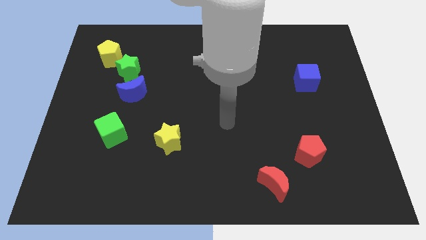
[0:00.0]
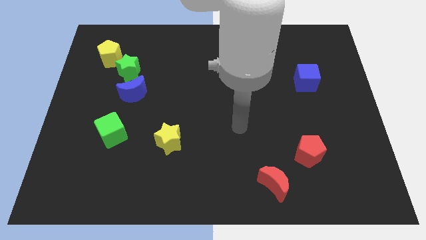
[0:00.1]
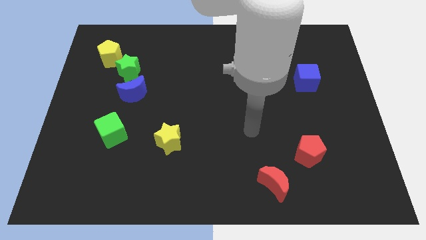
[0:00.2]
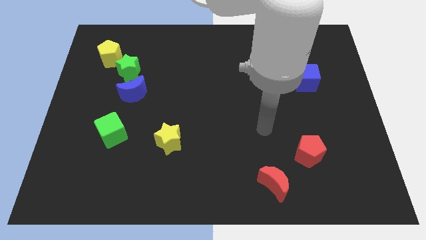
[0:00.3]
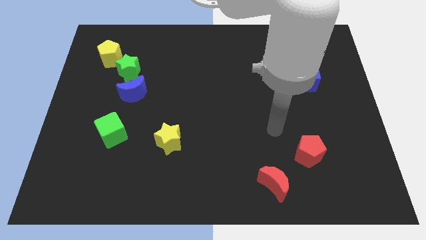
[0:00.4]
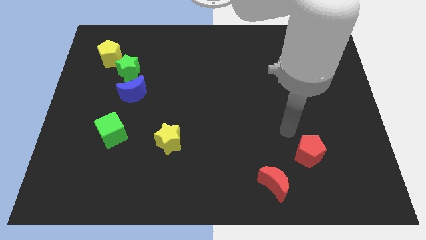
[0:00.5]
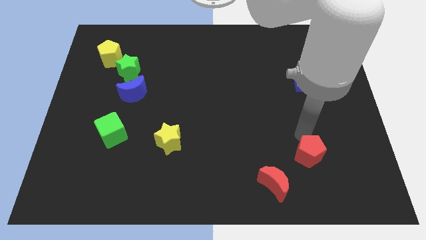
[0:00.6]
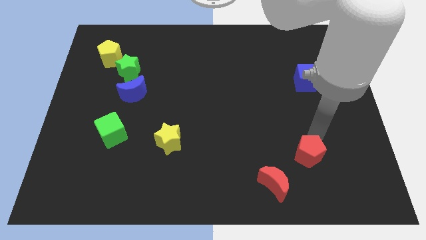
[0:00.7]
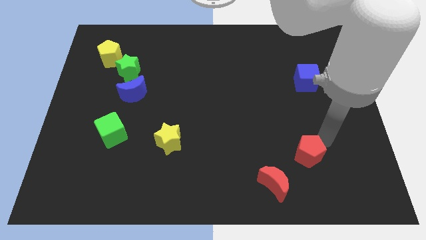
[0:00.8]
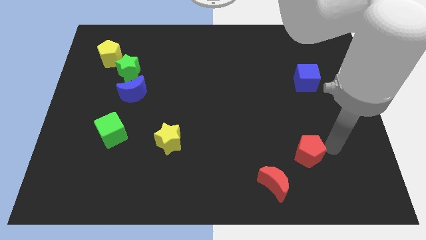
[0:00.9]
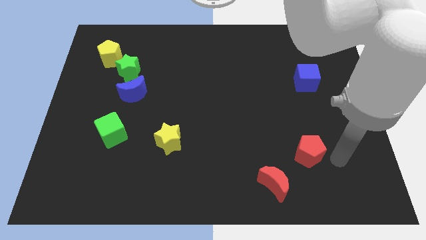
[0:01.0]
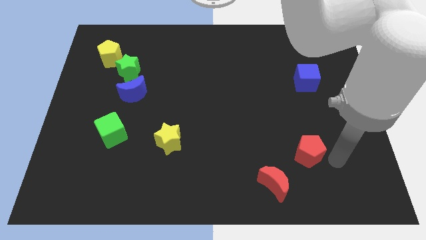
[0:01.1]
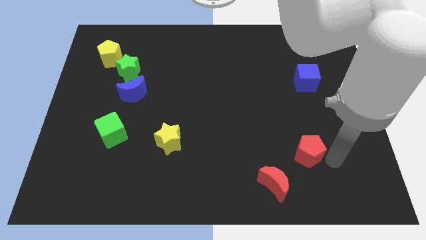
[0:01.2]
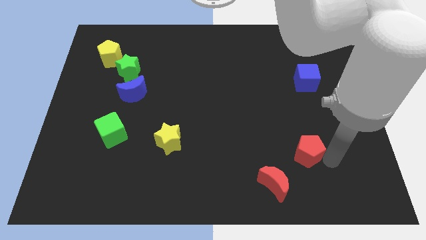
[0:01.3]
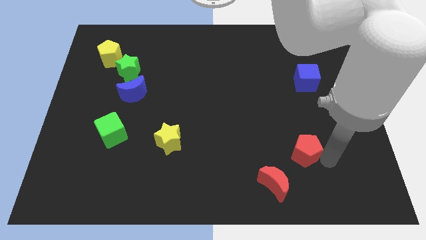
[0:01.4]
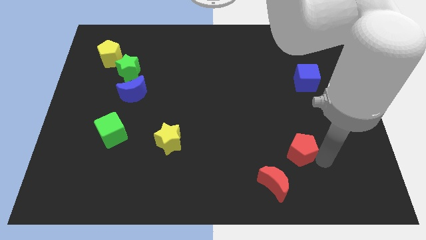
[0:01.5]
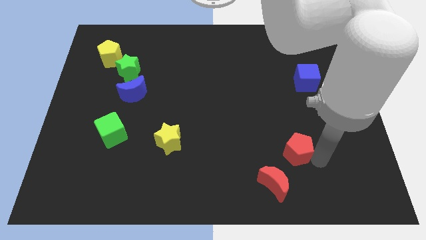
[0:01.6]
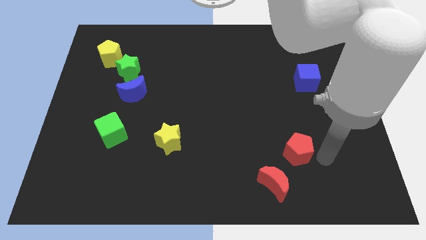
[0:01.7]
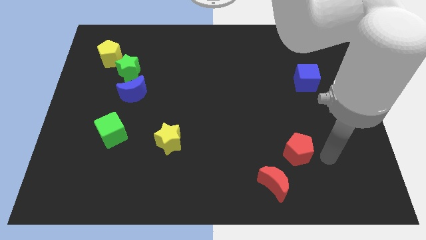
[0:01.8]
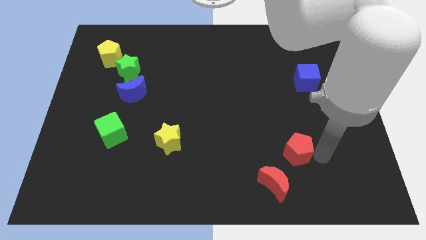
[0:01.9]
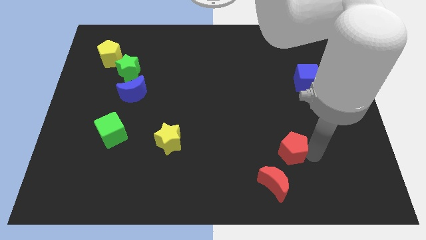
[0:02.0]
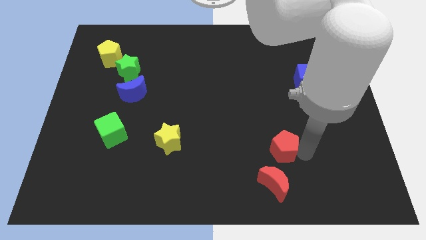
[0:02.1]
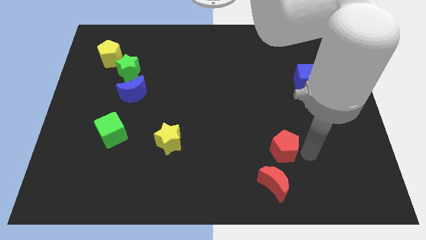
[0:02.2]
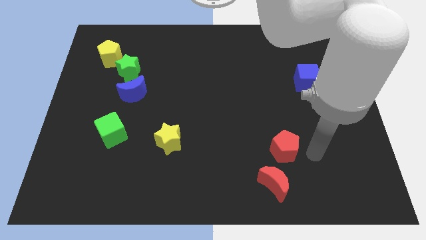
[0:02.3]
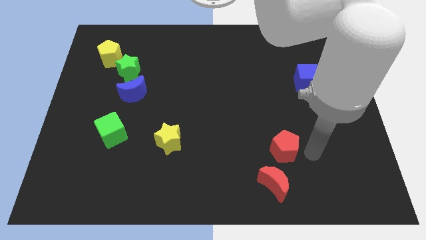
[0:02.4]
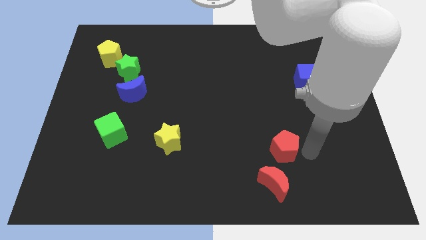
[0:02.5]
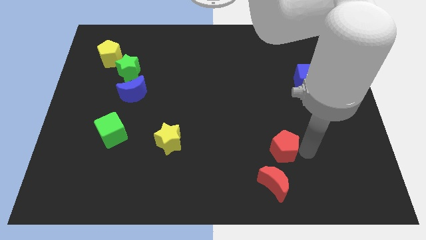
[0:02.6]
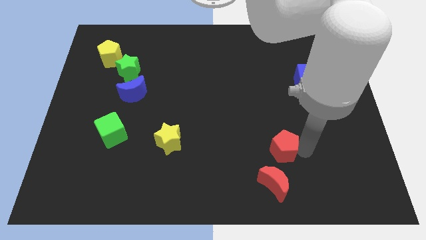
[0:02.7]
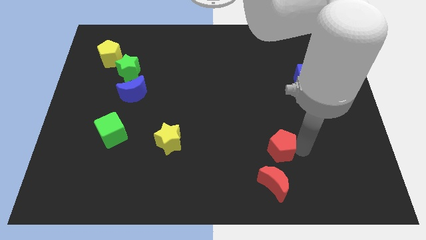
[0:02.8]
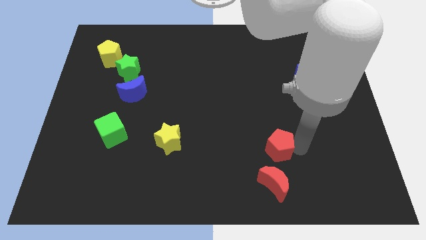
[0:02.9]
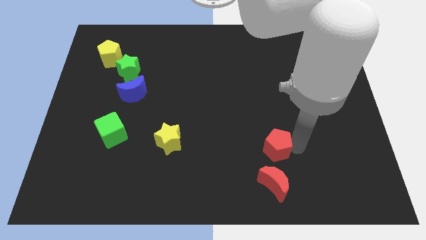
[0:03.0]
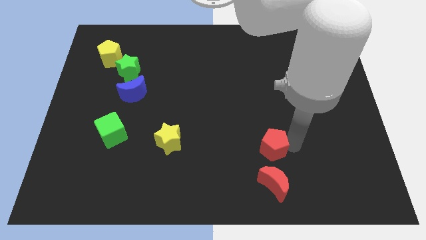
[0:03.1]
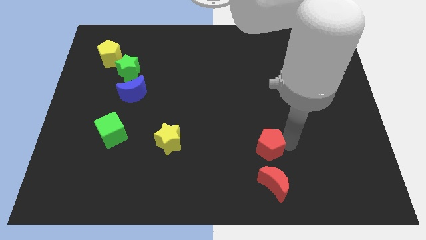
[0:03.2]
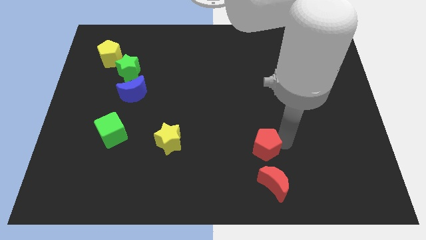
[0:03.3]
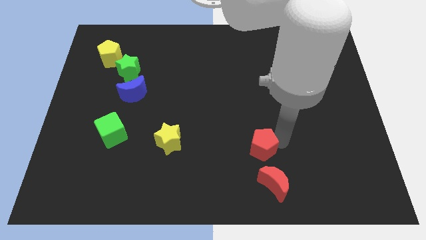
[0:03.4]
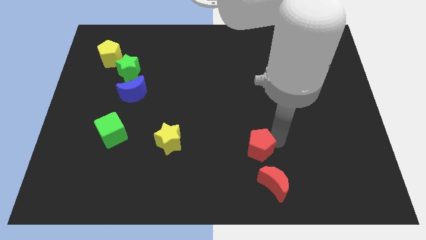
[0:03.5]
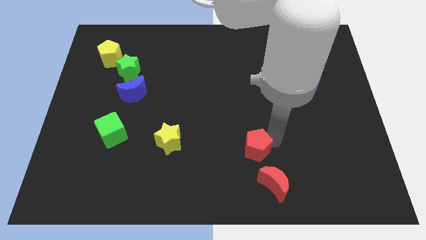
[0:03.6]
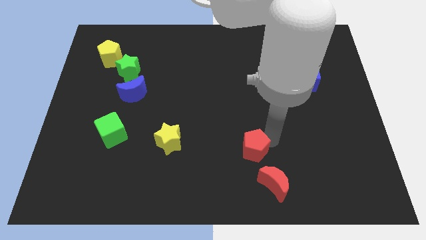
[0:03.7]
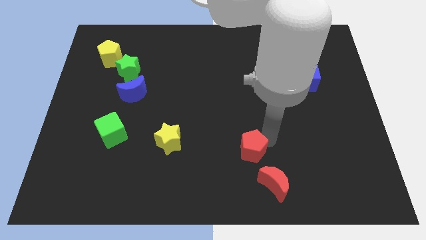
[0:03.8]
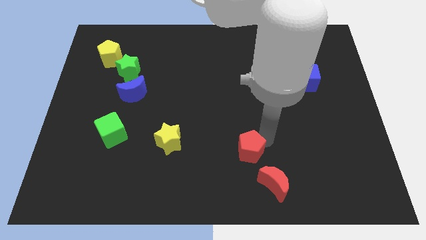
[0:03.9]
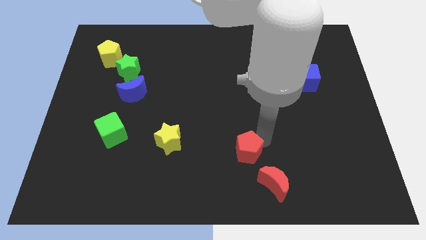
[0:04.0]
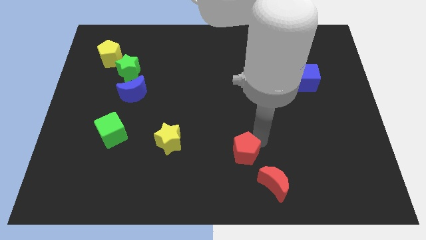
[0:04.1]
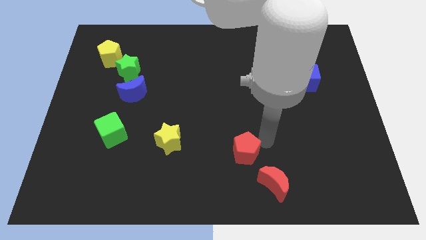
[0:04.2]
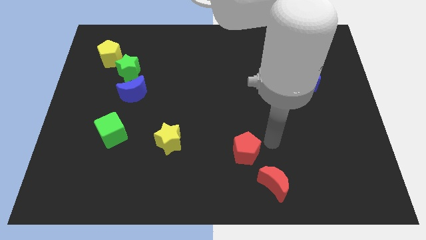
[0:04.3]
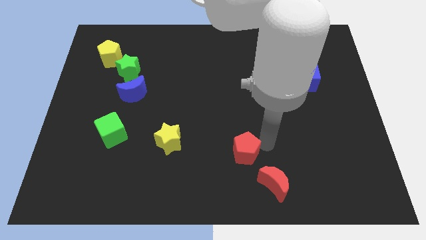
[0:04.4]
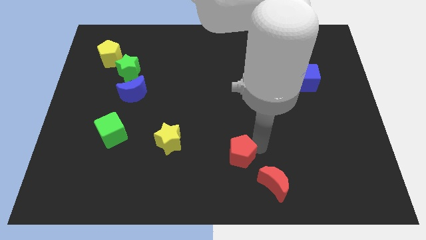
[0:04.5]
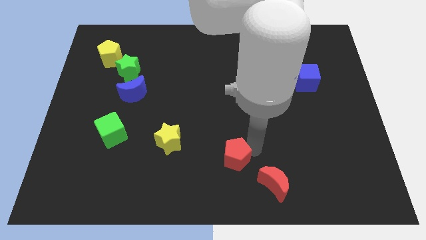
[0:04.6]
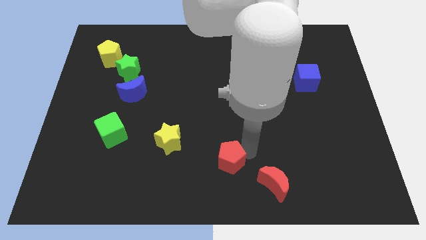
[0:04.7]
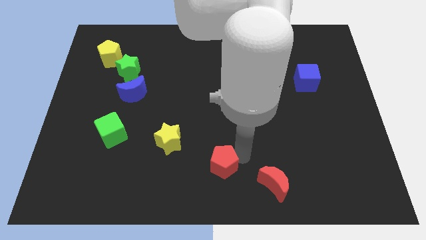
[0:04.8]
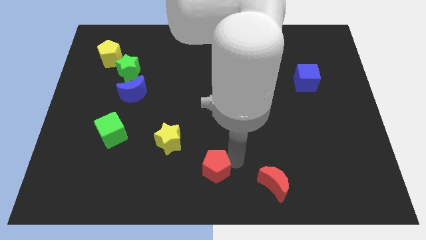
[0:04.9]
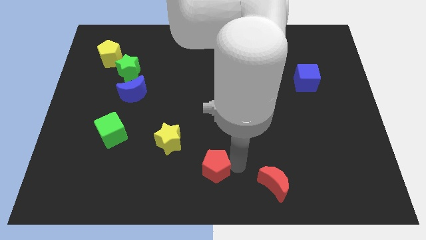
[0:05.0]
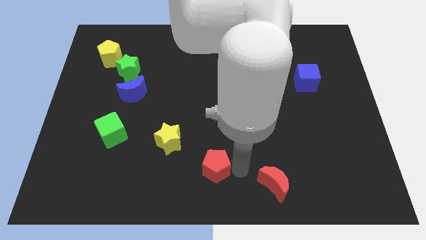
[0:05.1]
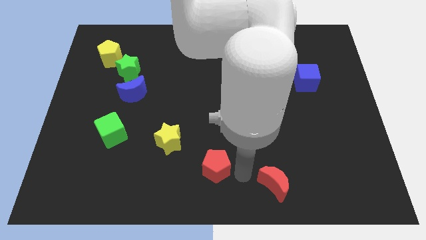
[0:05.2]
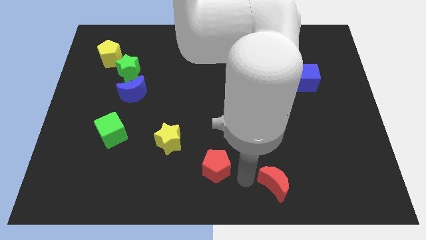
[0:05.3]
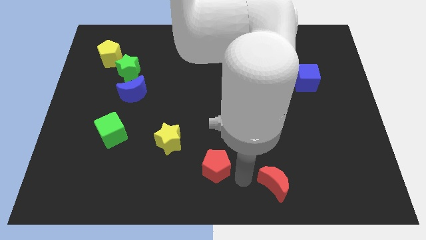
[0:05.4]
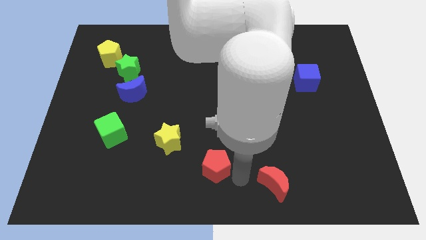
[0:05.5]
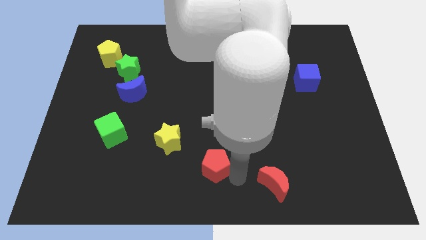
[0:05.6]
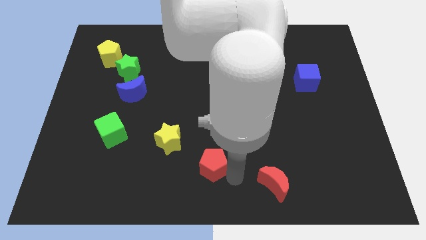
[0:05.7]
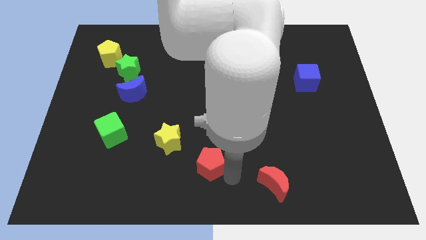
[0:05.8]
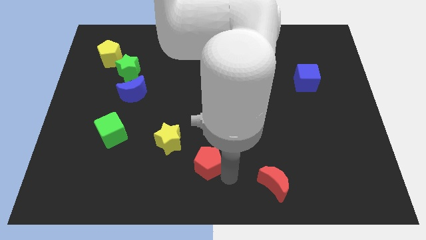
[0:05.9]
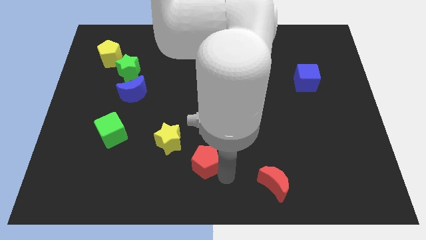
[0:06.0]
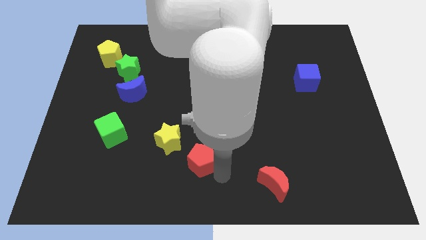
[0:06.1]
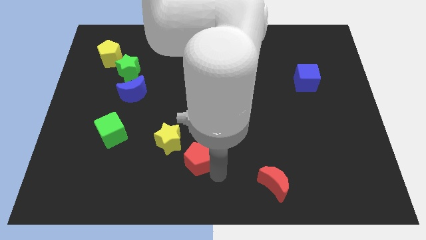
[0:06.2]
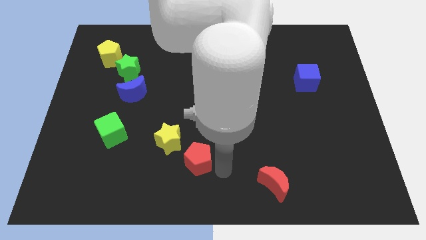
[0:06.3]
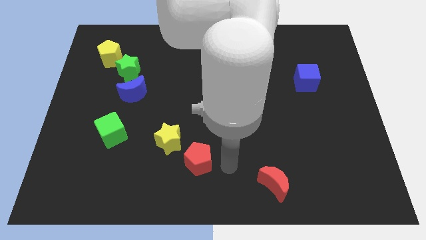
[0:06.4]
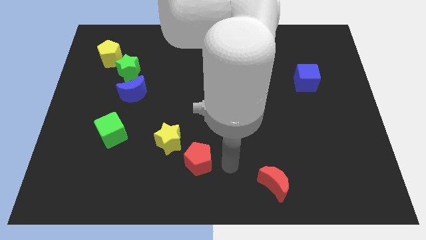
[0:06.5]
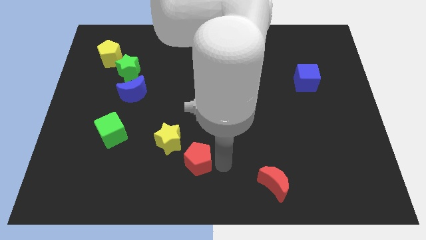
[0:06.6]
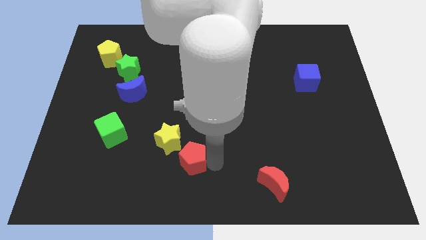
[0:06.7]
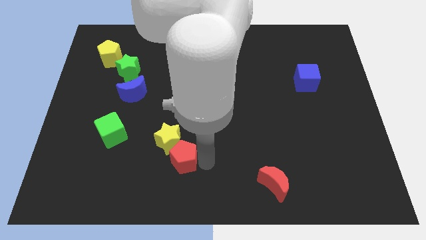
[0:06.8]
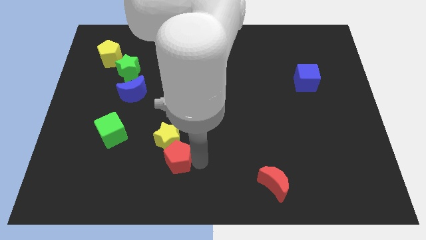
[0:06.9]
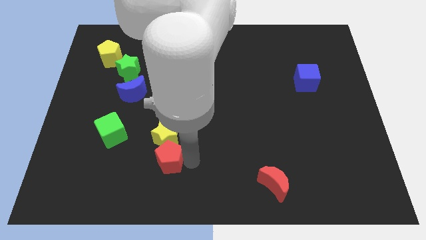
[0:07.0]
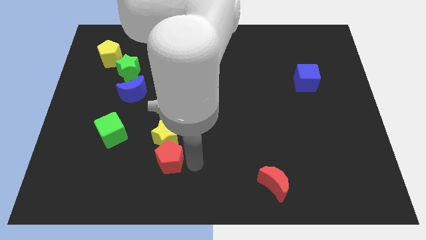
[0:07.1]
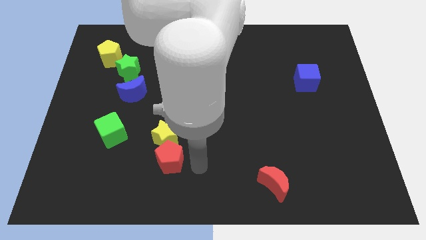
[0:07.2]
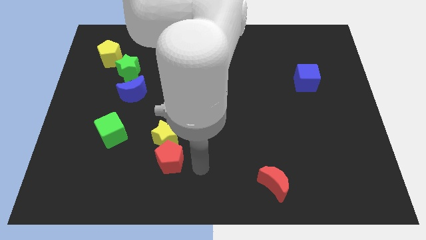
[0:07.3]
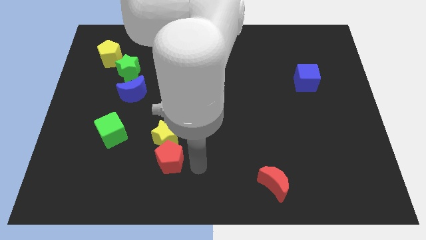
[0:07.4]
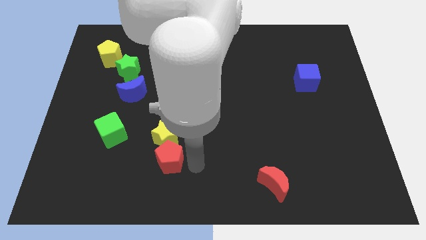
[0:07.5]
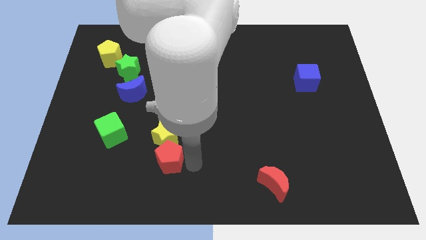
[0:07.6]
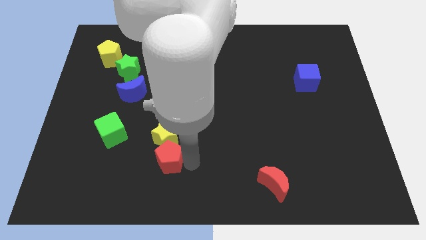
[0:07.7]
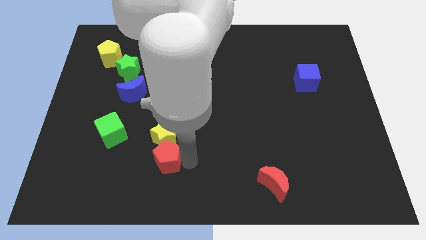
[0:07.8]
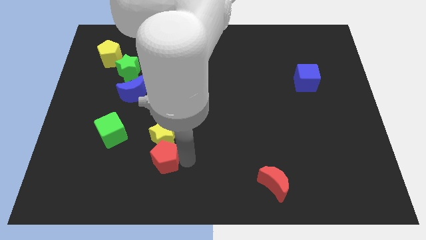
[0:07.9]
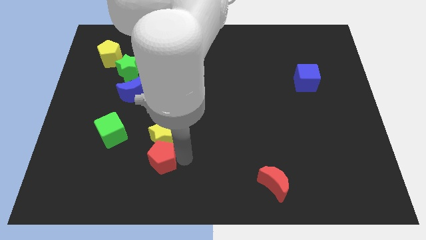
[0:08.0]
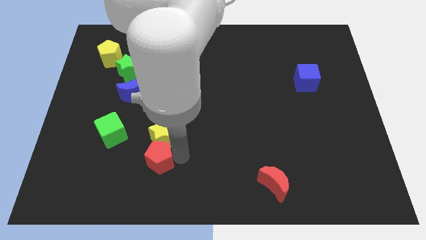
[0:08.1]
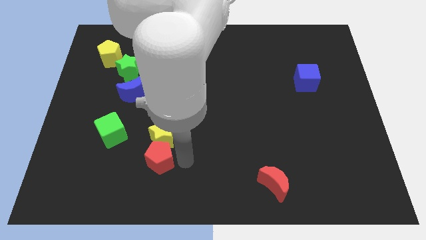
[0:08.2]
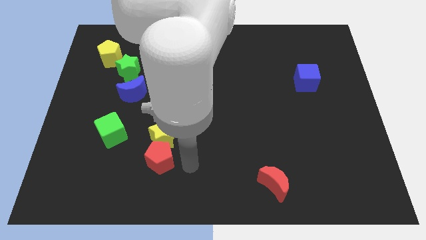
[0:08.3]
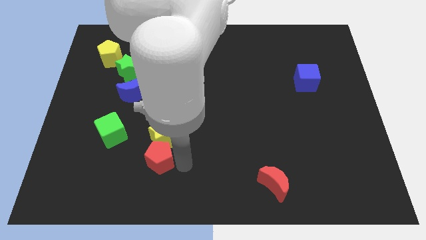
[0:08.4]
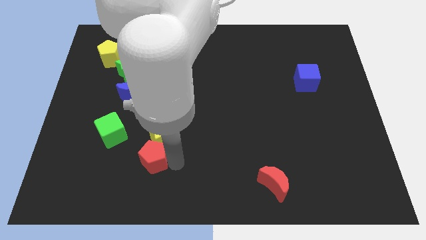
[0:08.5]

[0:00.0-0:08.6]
push the red pentagon to the bottom right side of the green cube

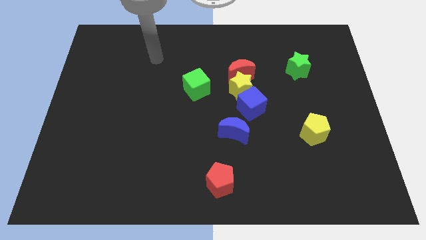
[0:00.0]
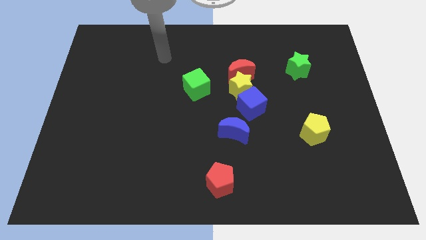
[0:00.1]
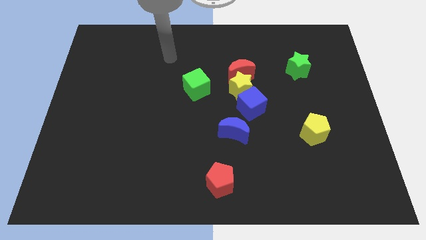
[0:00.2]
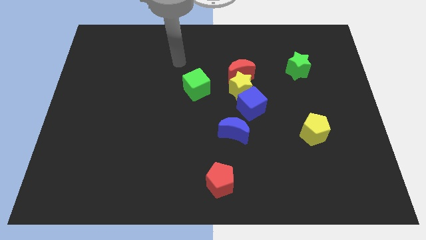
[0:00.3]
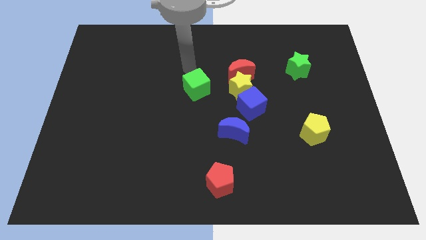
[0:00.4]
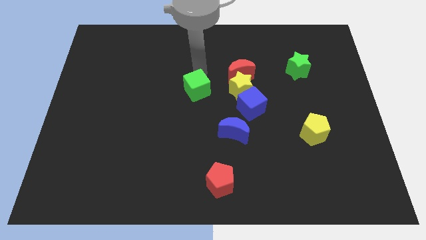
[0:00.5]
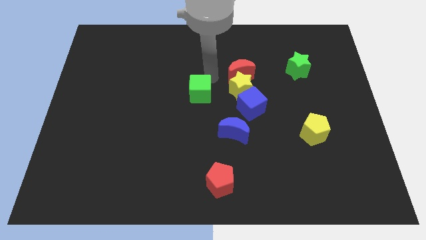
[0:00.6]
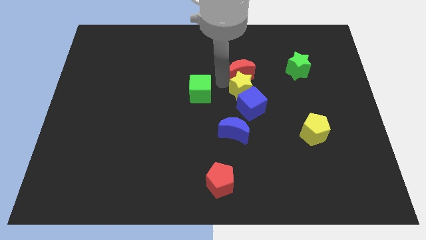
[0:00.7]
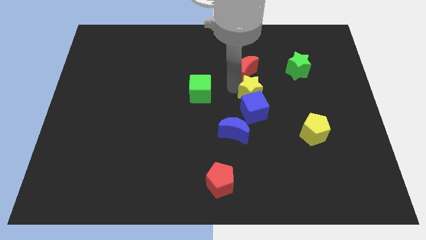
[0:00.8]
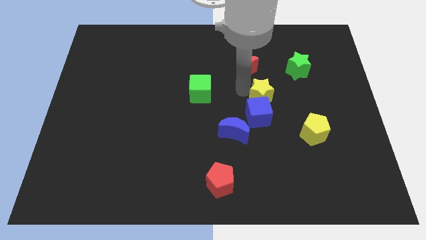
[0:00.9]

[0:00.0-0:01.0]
slide the blue cube to the left of the yellow pentagon
